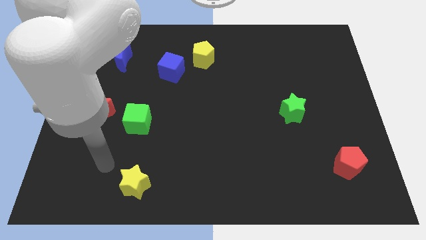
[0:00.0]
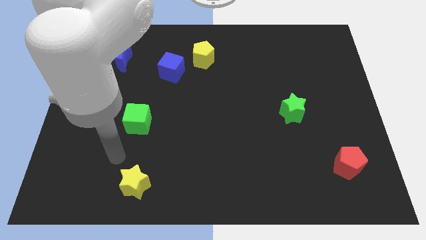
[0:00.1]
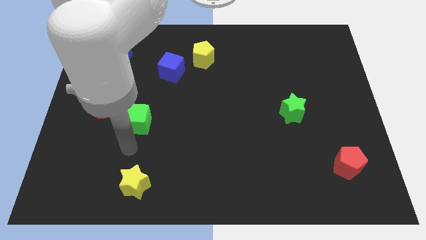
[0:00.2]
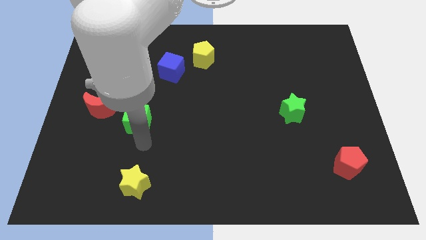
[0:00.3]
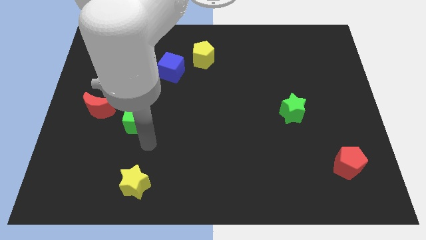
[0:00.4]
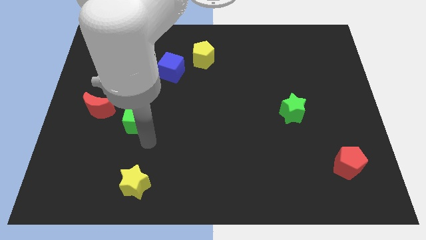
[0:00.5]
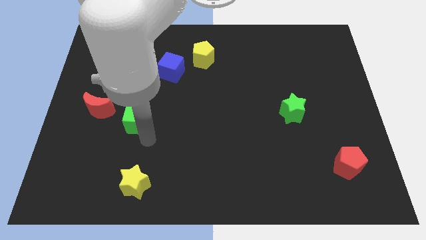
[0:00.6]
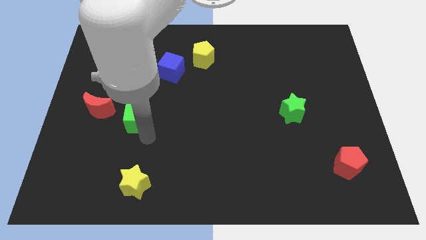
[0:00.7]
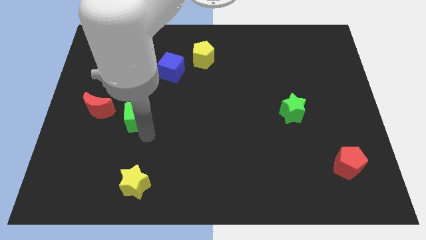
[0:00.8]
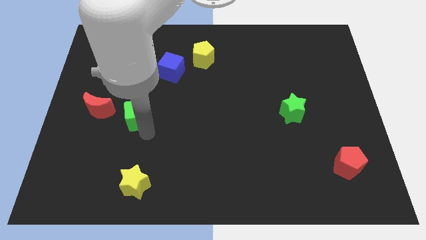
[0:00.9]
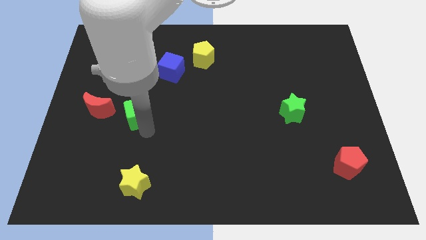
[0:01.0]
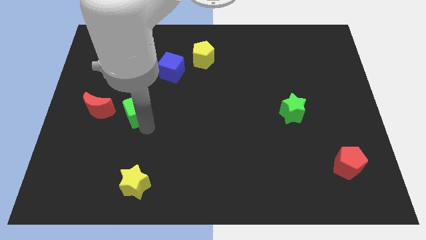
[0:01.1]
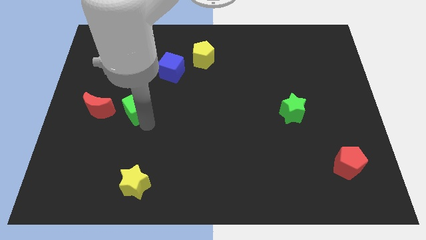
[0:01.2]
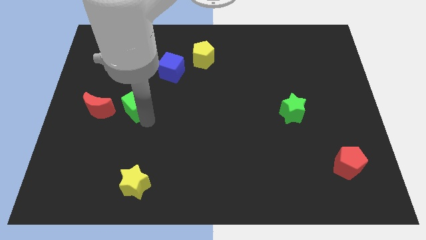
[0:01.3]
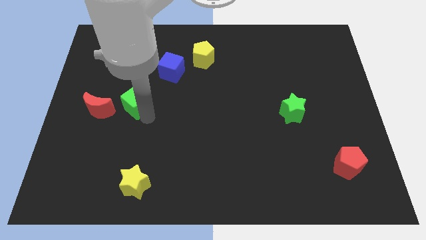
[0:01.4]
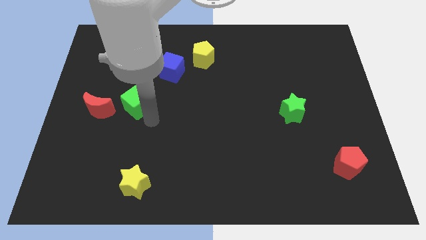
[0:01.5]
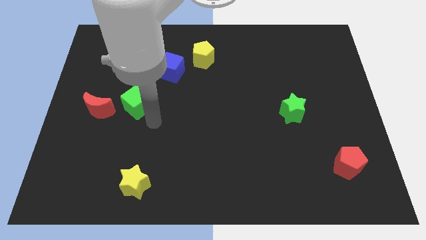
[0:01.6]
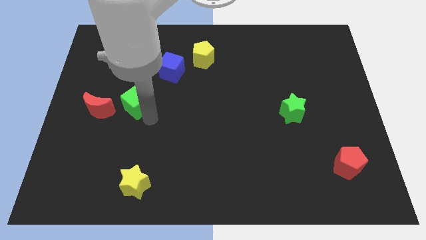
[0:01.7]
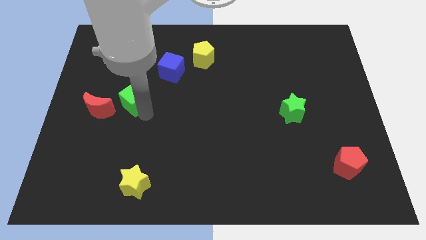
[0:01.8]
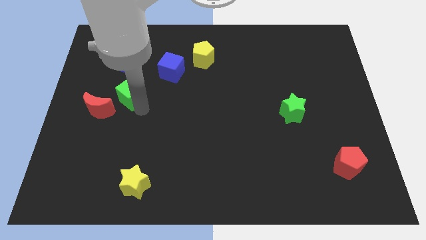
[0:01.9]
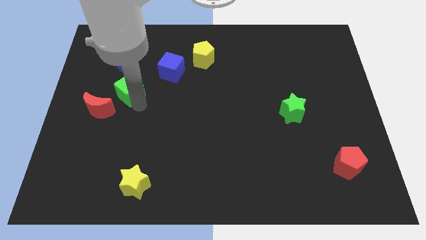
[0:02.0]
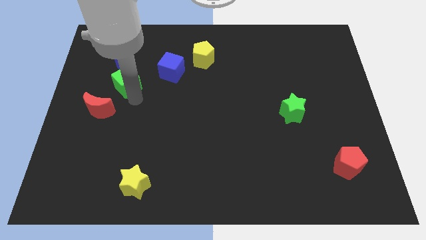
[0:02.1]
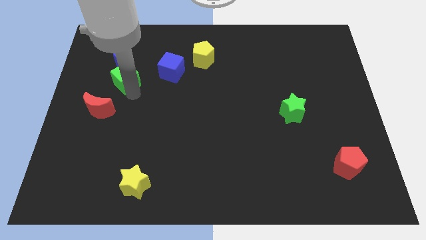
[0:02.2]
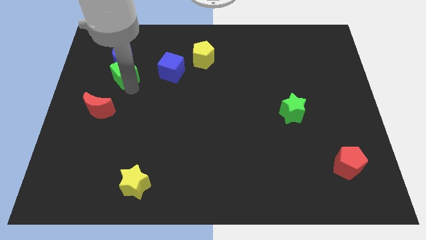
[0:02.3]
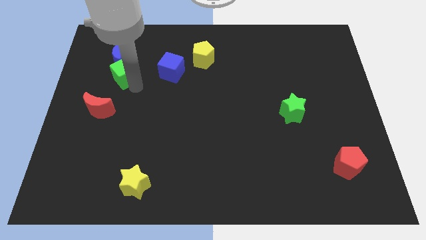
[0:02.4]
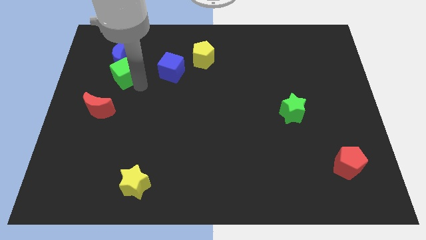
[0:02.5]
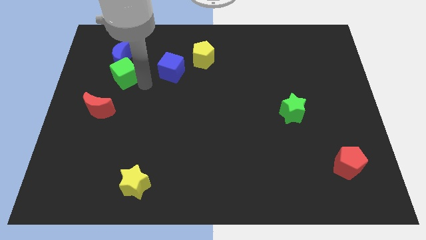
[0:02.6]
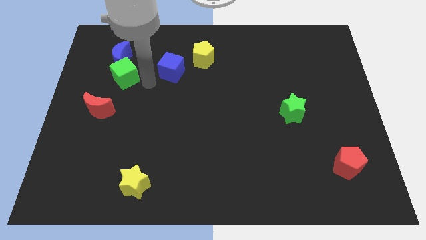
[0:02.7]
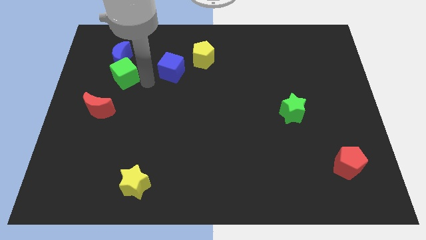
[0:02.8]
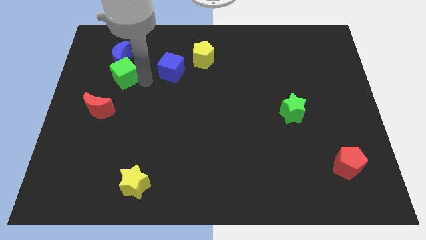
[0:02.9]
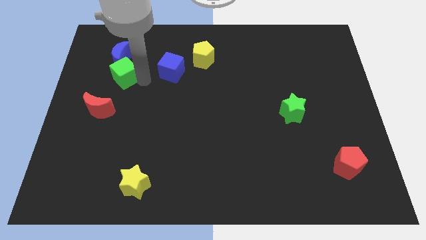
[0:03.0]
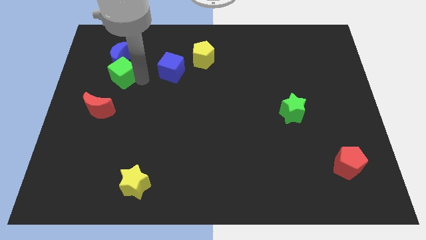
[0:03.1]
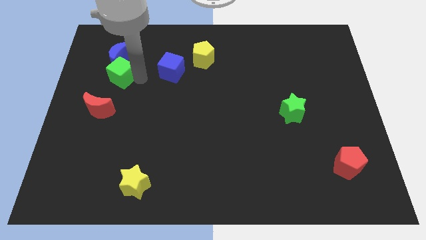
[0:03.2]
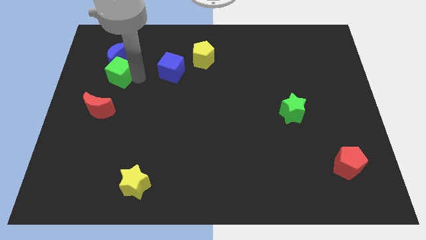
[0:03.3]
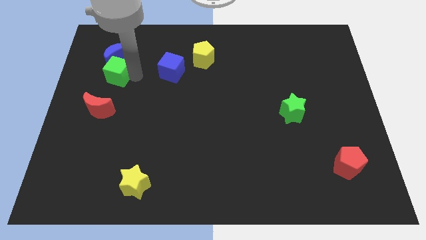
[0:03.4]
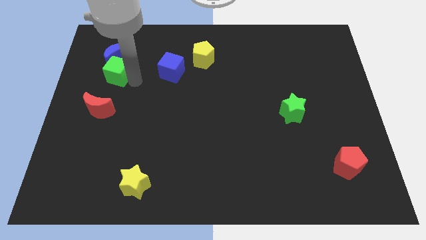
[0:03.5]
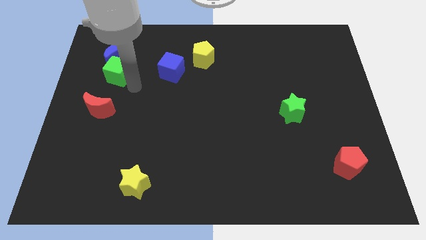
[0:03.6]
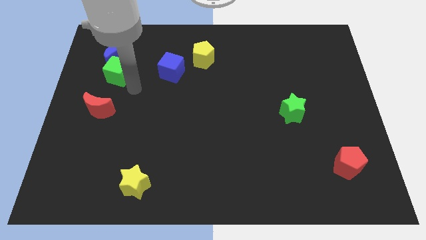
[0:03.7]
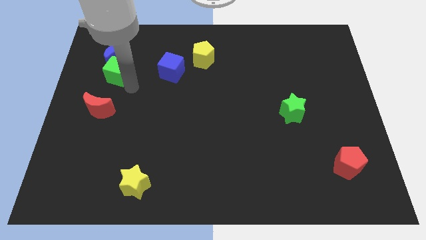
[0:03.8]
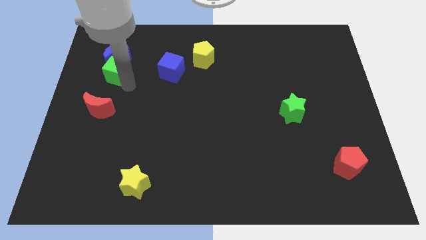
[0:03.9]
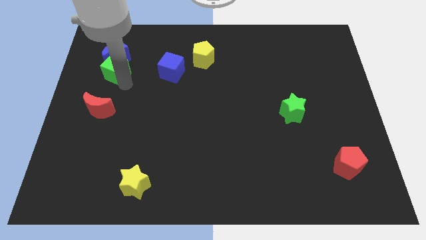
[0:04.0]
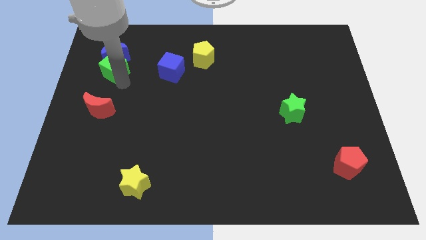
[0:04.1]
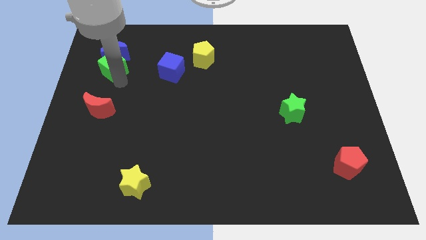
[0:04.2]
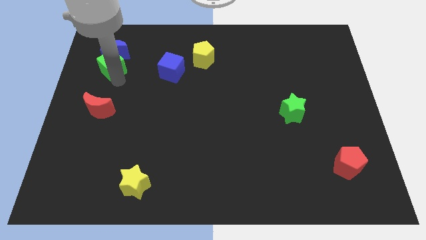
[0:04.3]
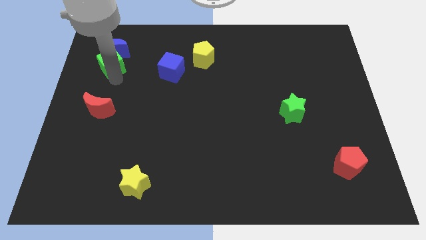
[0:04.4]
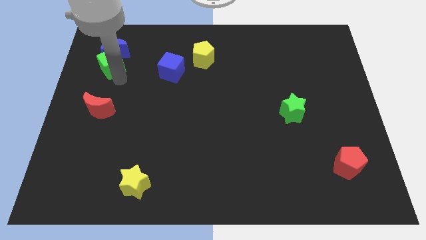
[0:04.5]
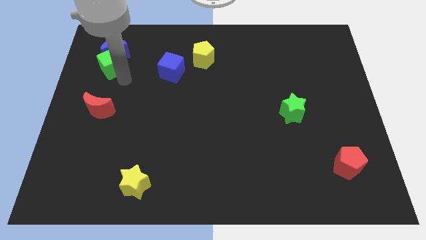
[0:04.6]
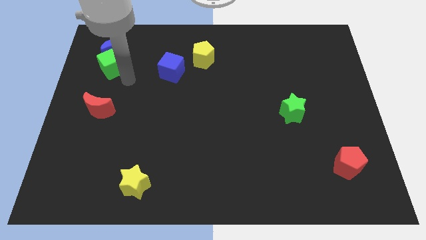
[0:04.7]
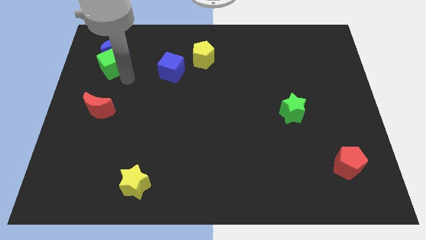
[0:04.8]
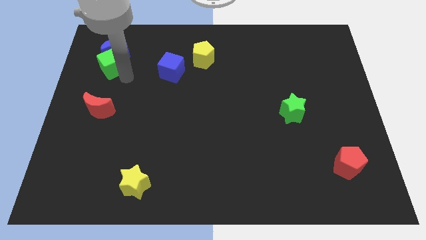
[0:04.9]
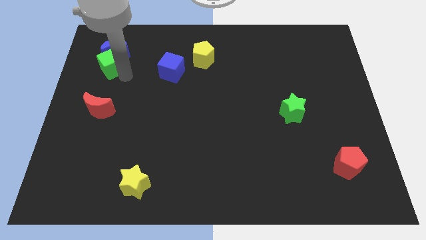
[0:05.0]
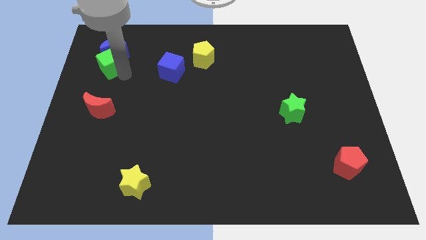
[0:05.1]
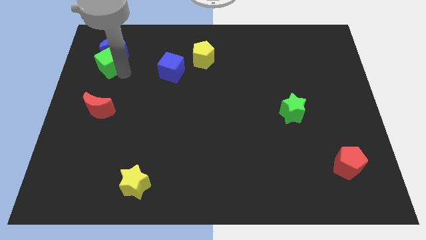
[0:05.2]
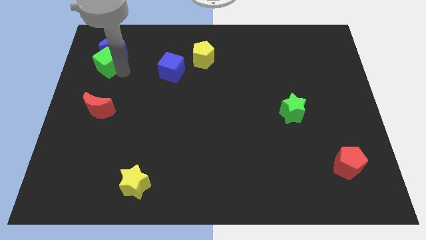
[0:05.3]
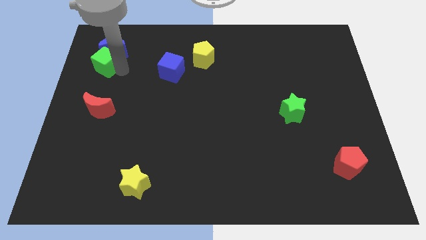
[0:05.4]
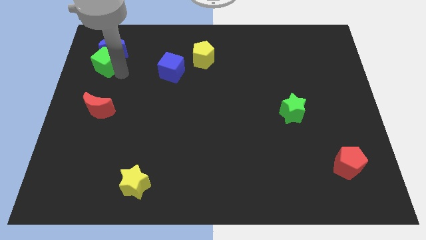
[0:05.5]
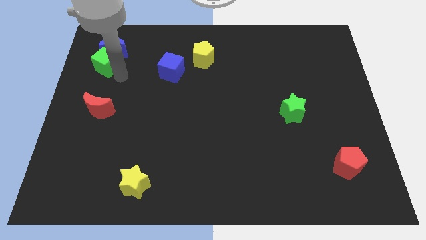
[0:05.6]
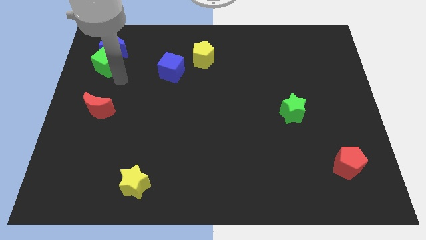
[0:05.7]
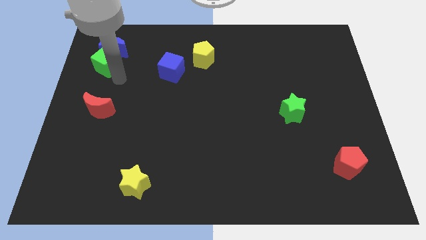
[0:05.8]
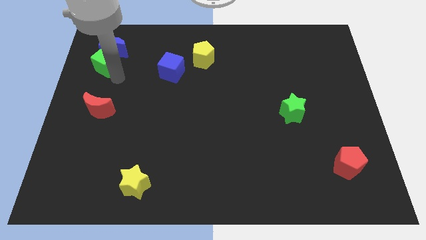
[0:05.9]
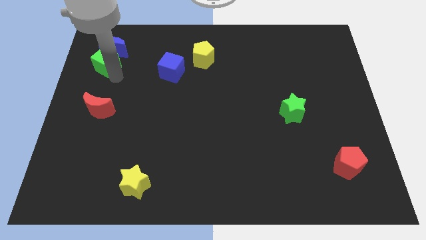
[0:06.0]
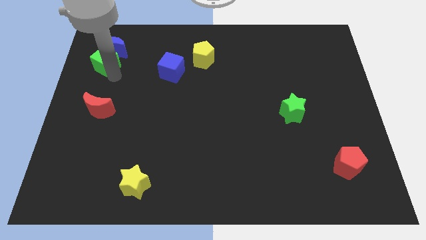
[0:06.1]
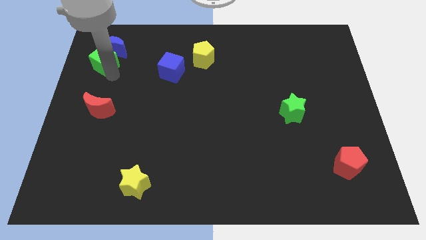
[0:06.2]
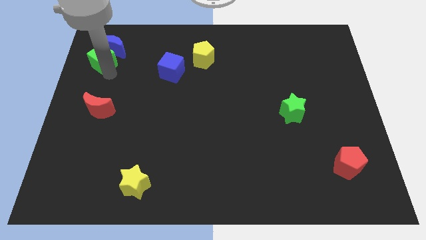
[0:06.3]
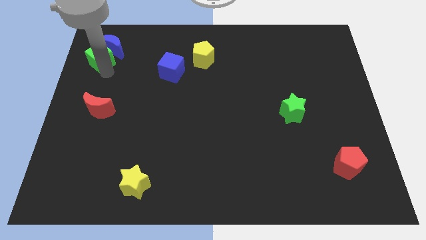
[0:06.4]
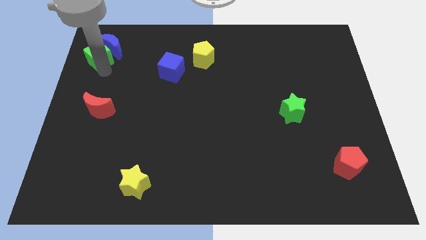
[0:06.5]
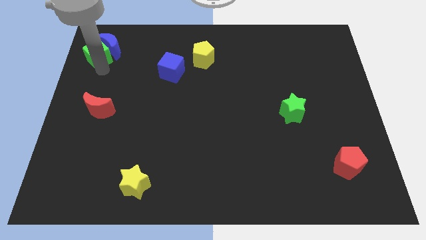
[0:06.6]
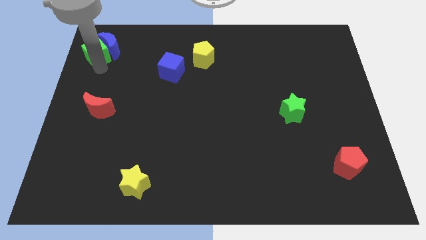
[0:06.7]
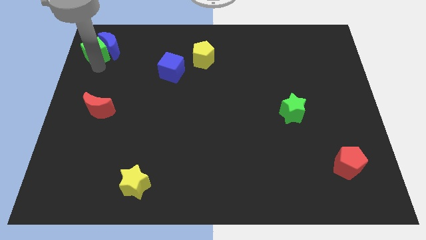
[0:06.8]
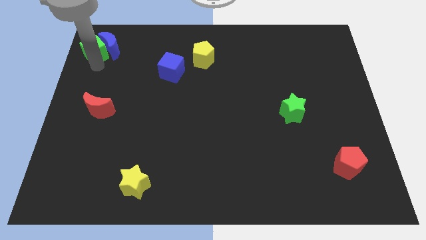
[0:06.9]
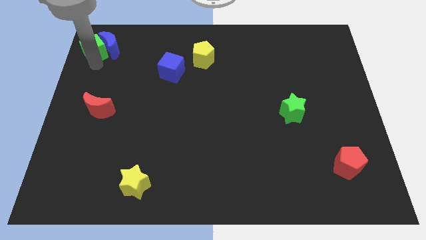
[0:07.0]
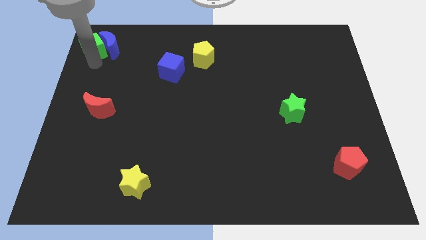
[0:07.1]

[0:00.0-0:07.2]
move the green cube to the top left
